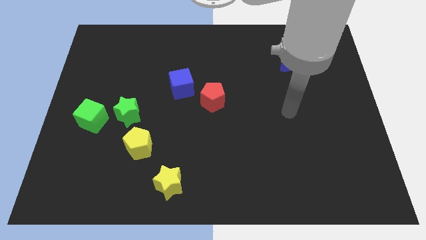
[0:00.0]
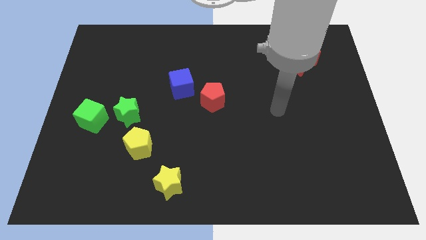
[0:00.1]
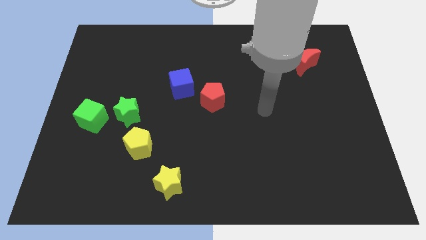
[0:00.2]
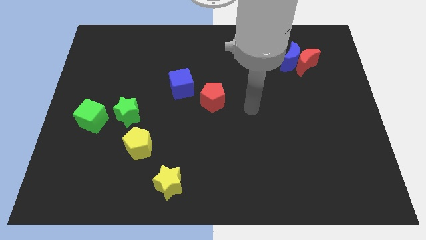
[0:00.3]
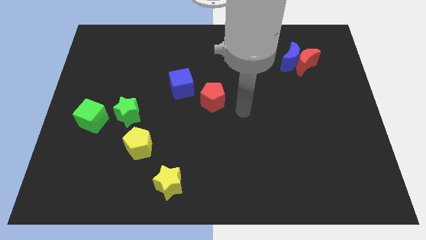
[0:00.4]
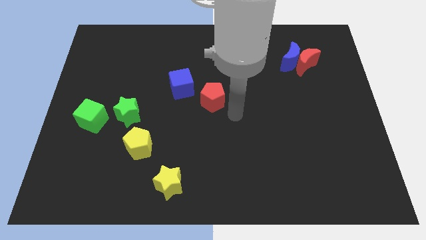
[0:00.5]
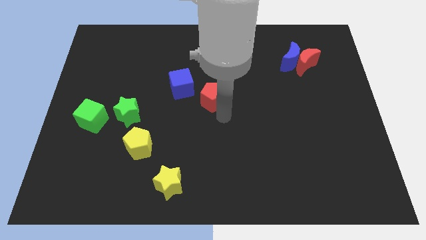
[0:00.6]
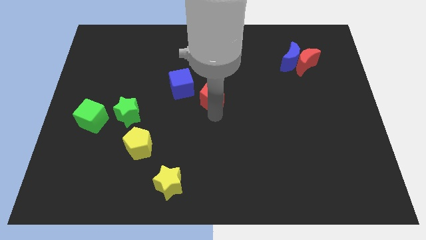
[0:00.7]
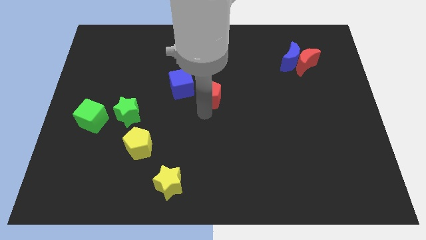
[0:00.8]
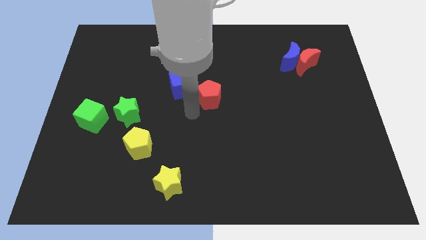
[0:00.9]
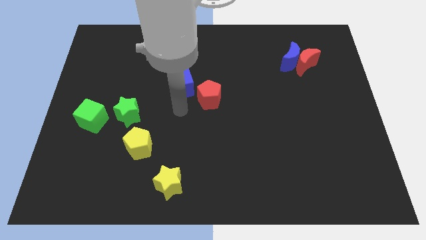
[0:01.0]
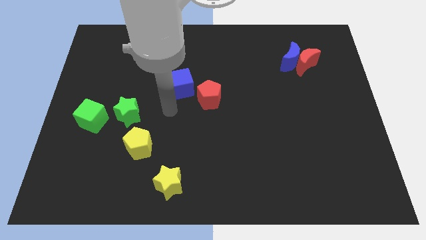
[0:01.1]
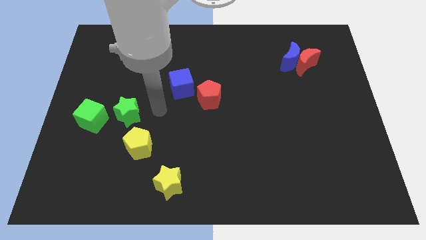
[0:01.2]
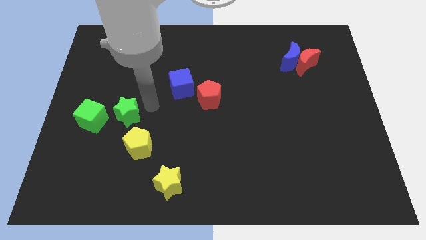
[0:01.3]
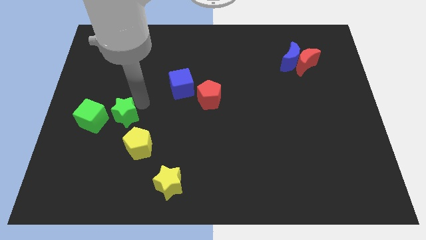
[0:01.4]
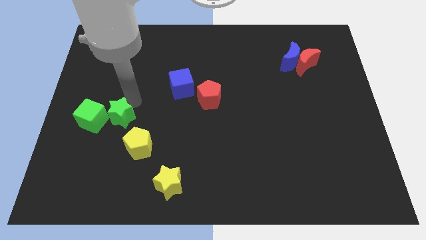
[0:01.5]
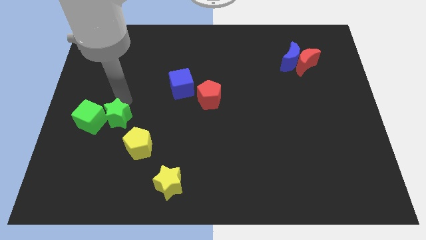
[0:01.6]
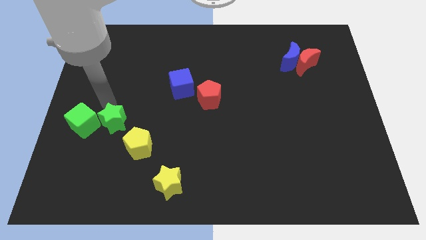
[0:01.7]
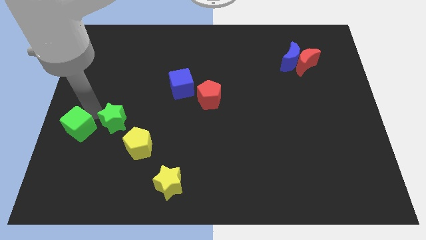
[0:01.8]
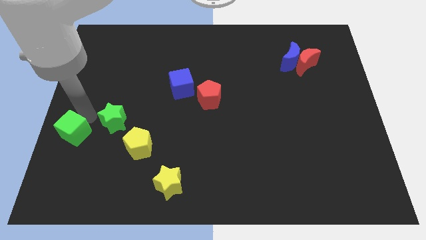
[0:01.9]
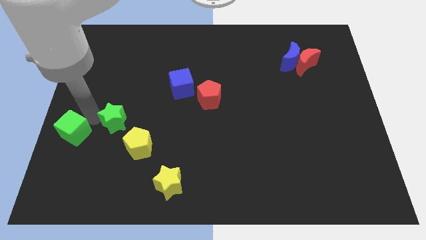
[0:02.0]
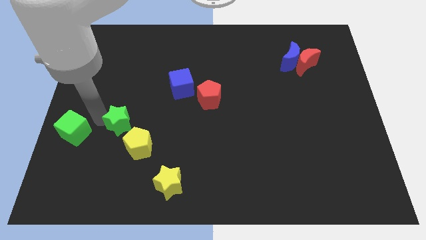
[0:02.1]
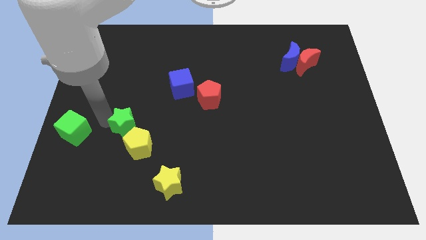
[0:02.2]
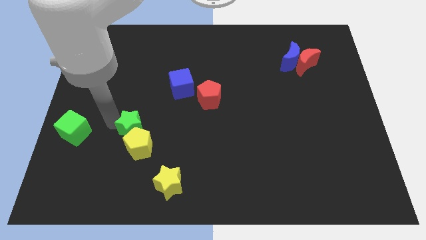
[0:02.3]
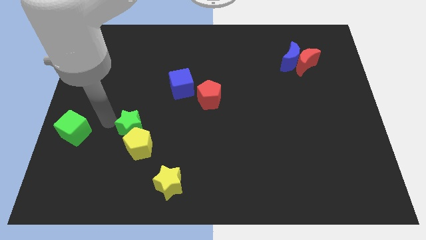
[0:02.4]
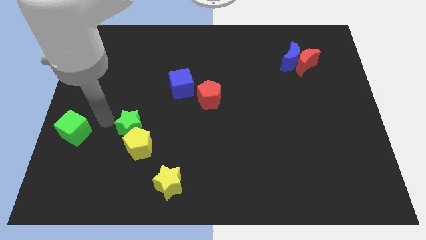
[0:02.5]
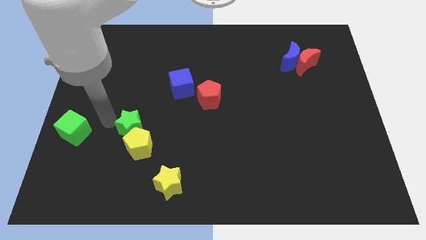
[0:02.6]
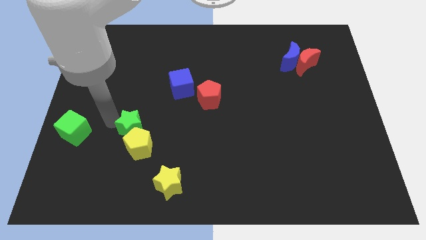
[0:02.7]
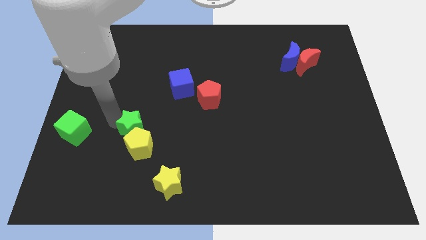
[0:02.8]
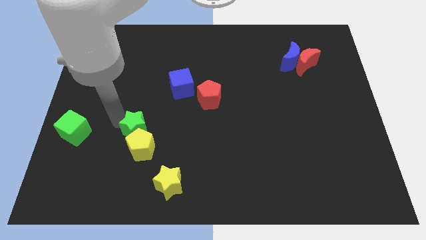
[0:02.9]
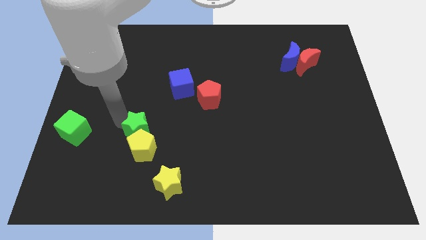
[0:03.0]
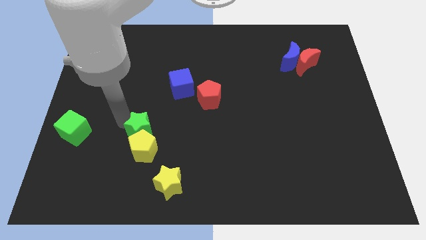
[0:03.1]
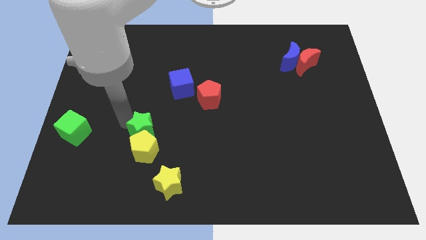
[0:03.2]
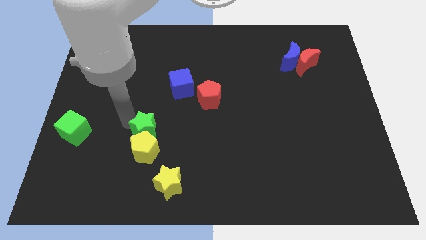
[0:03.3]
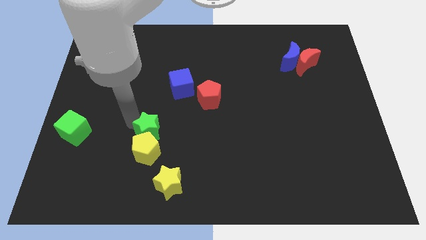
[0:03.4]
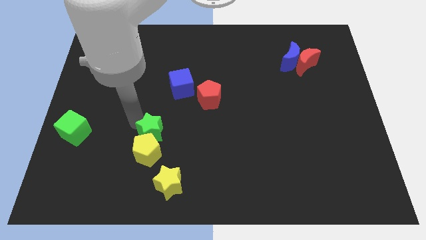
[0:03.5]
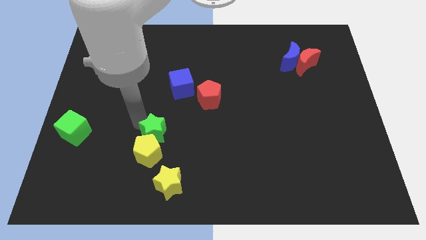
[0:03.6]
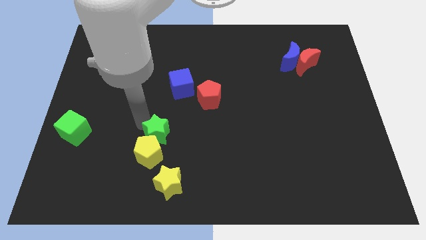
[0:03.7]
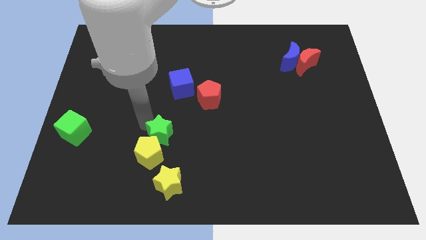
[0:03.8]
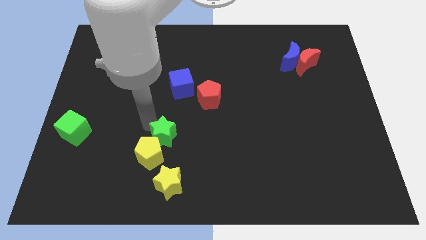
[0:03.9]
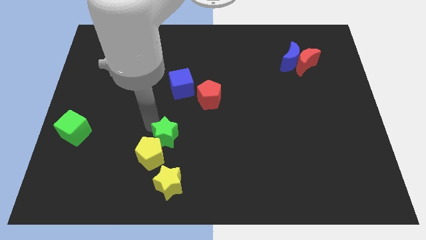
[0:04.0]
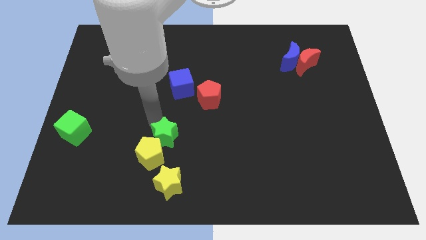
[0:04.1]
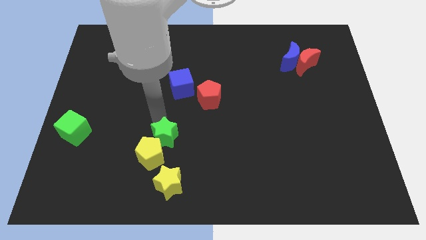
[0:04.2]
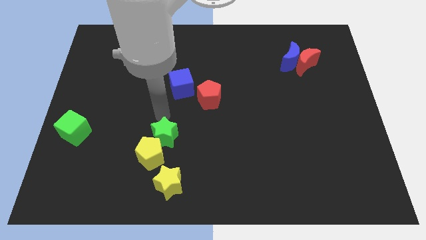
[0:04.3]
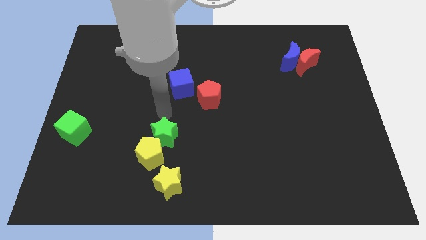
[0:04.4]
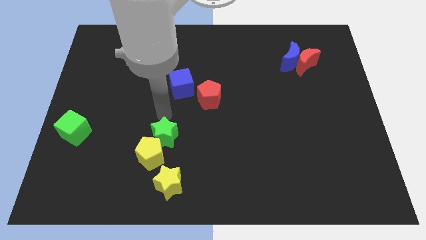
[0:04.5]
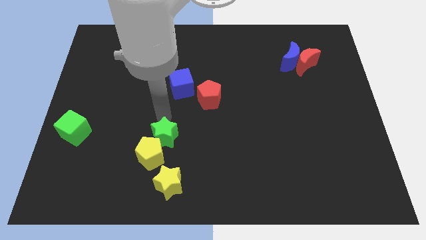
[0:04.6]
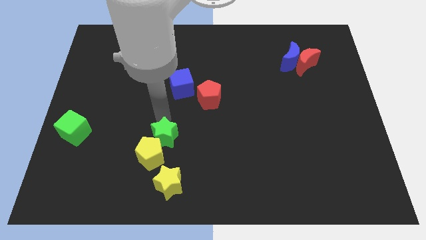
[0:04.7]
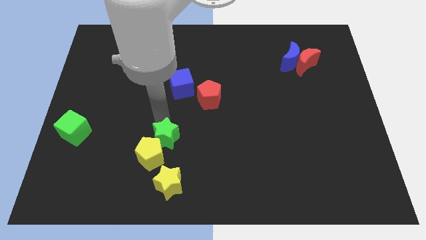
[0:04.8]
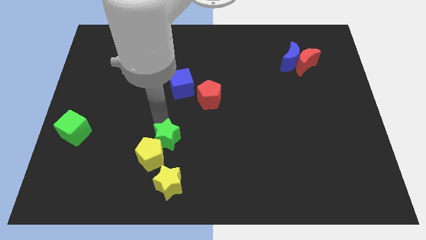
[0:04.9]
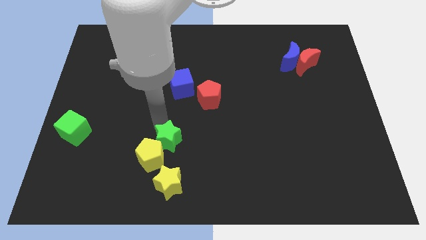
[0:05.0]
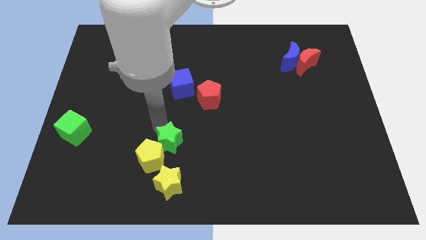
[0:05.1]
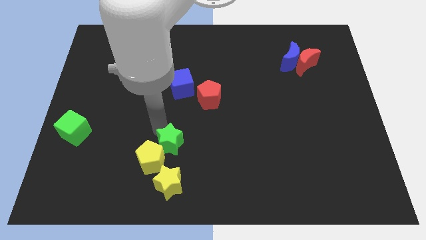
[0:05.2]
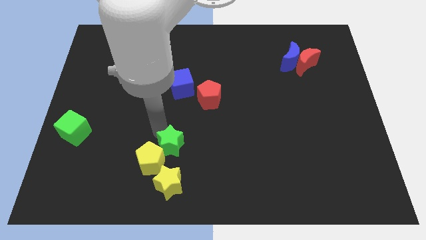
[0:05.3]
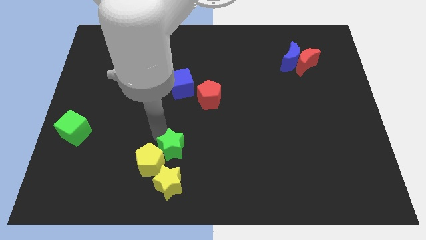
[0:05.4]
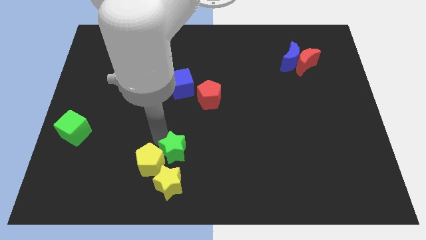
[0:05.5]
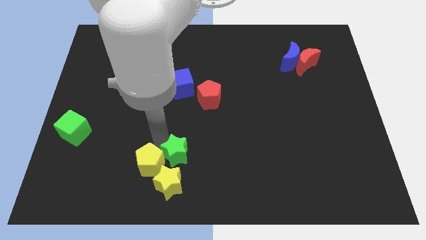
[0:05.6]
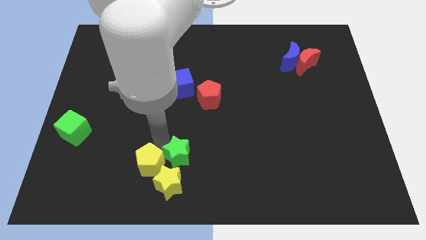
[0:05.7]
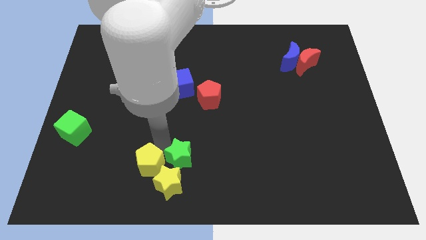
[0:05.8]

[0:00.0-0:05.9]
push the green star close to the yellow star

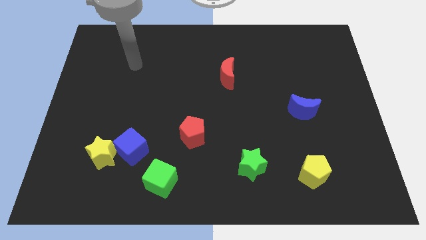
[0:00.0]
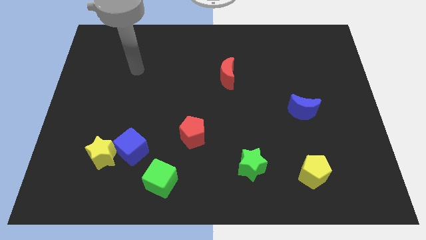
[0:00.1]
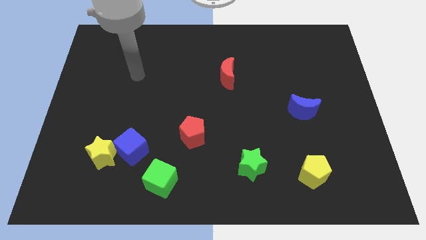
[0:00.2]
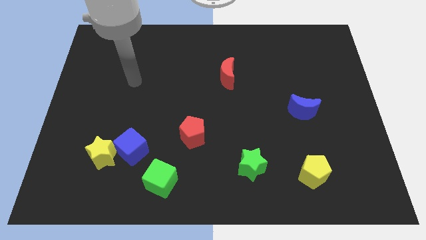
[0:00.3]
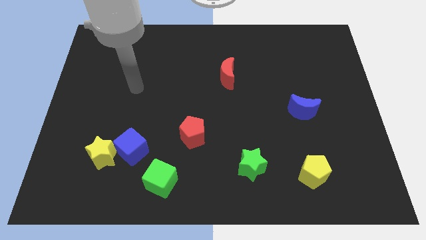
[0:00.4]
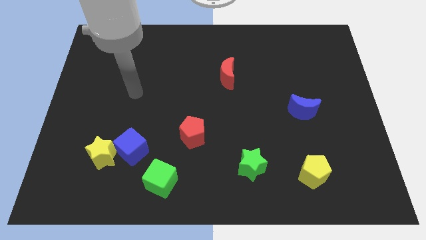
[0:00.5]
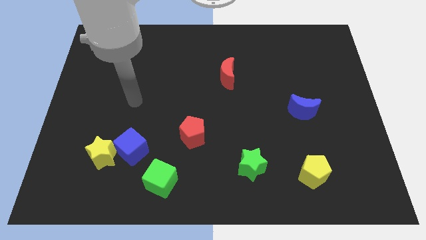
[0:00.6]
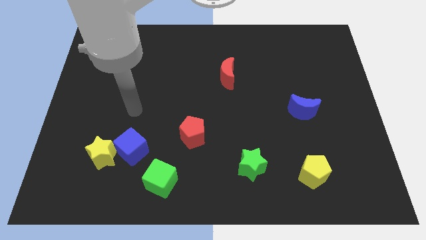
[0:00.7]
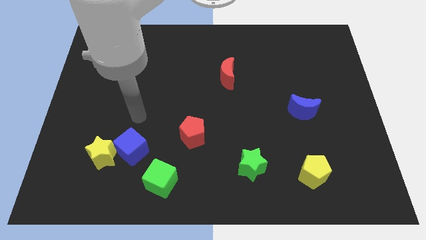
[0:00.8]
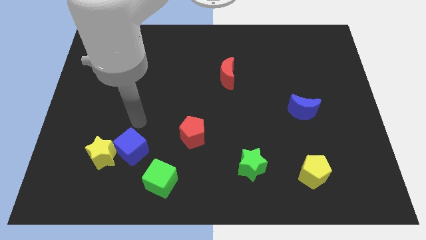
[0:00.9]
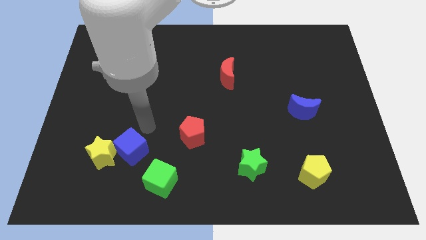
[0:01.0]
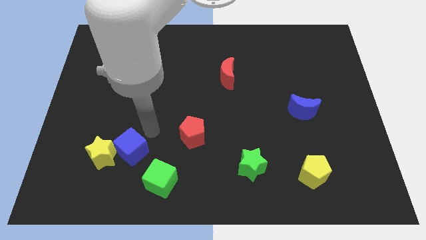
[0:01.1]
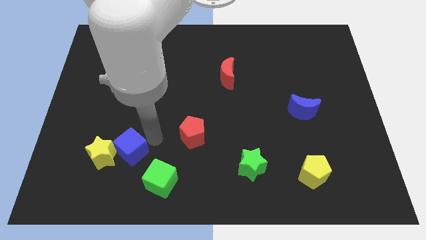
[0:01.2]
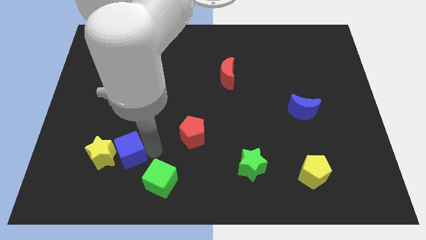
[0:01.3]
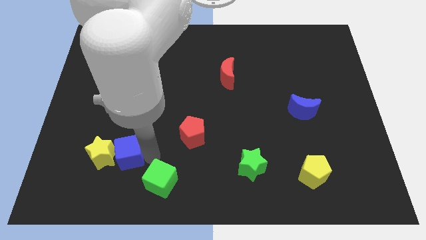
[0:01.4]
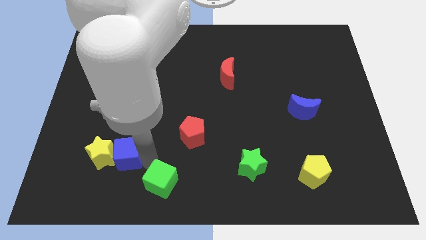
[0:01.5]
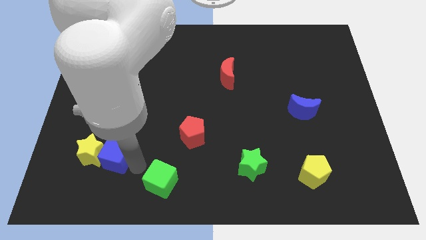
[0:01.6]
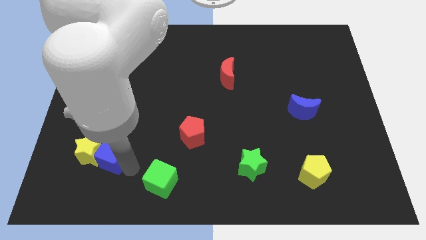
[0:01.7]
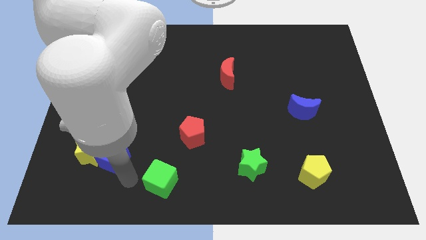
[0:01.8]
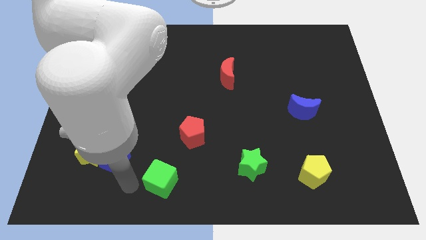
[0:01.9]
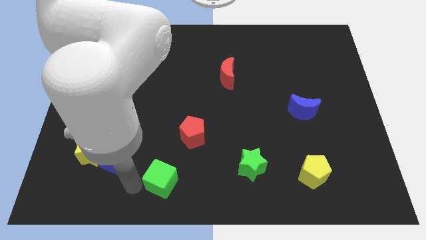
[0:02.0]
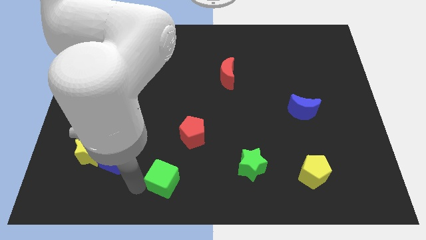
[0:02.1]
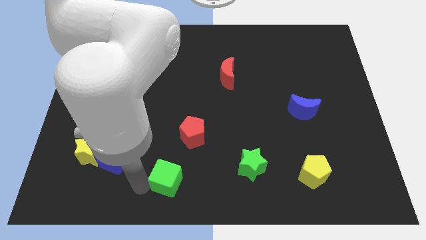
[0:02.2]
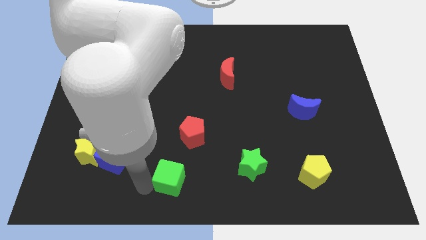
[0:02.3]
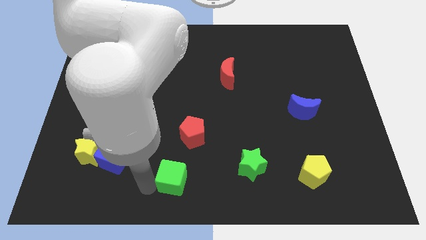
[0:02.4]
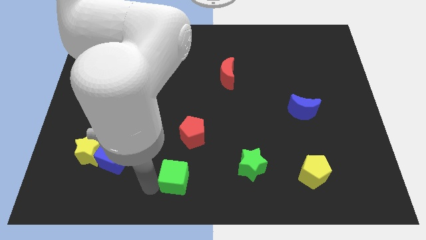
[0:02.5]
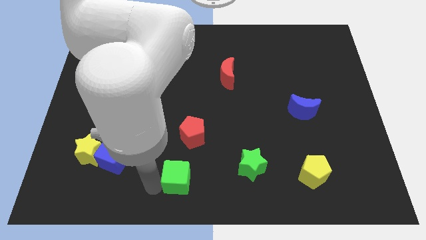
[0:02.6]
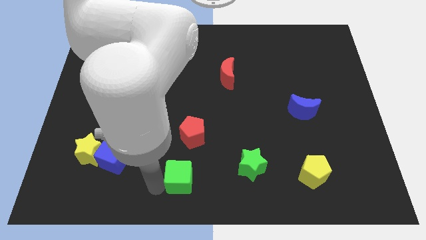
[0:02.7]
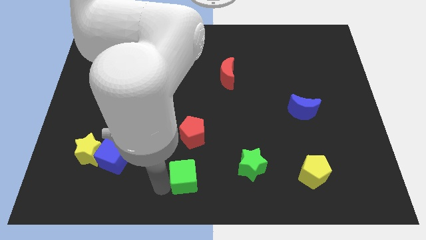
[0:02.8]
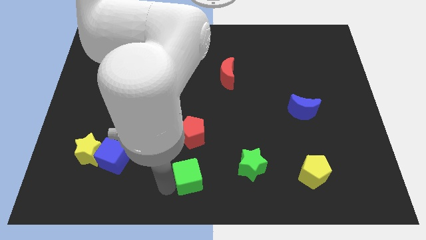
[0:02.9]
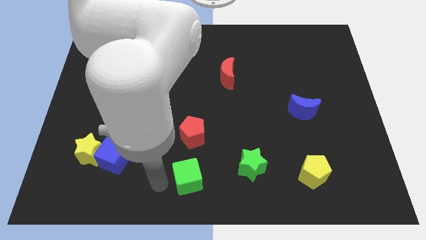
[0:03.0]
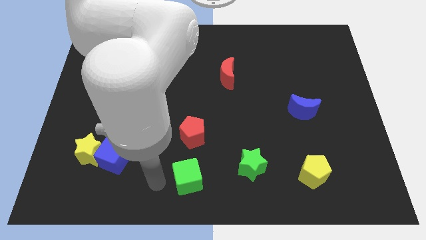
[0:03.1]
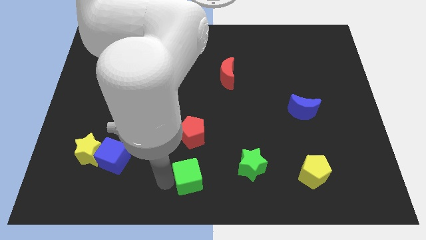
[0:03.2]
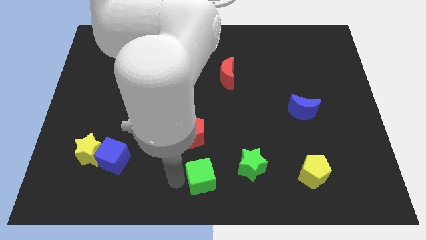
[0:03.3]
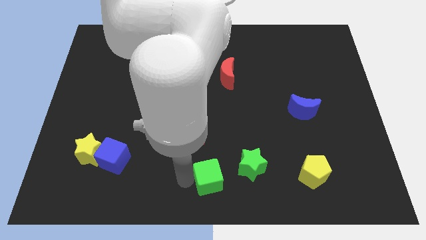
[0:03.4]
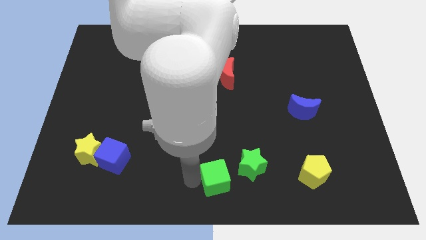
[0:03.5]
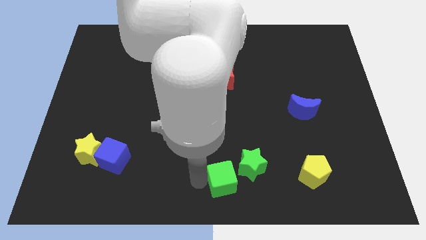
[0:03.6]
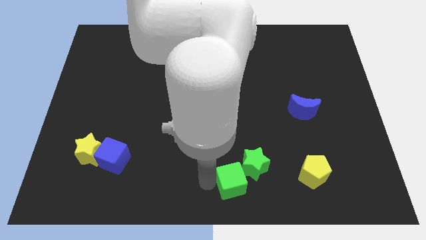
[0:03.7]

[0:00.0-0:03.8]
push the green cube next to the green star
